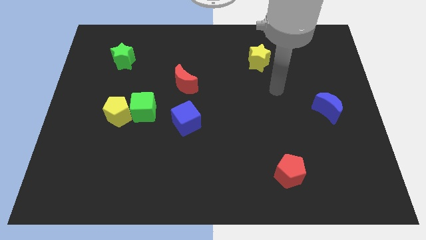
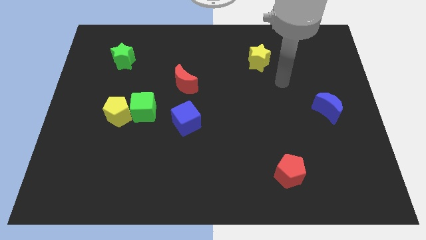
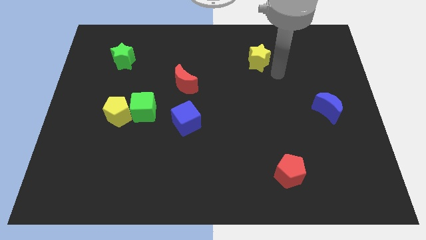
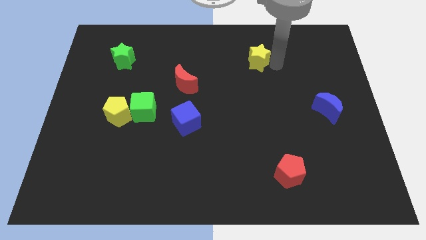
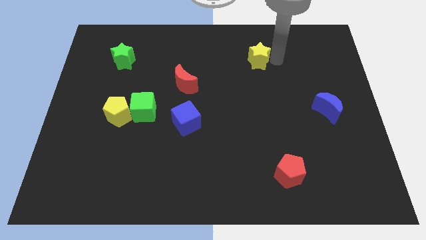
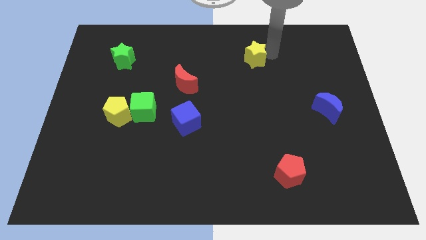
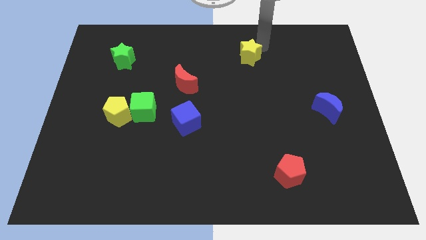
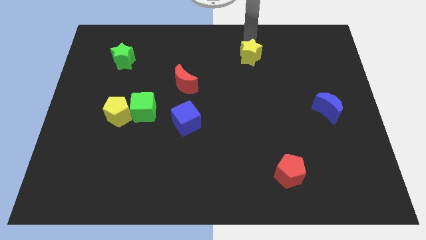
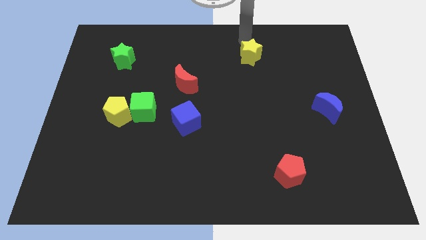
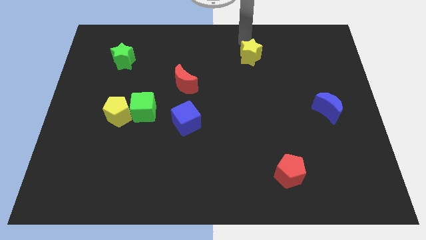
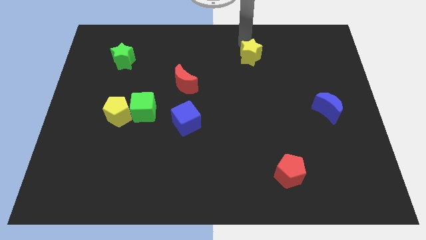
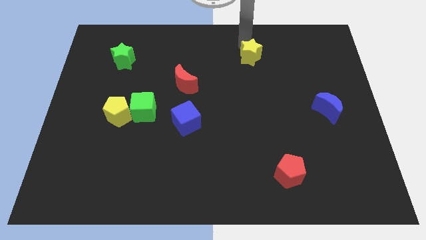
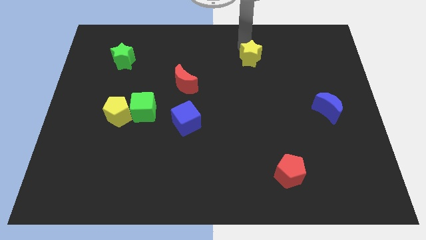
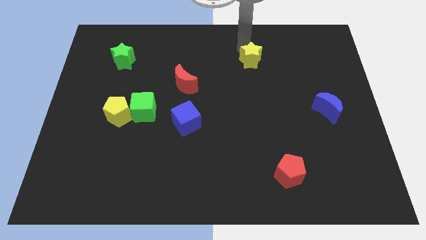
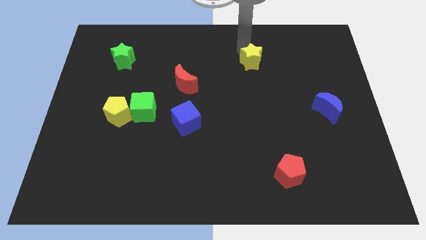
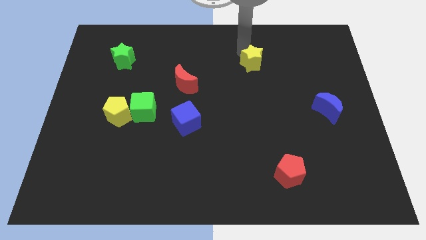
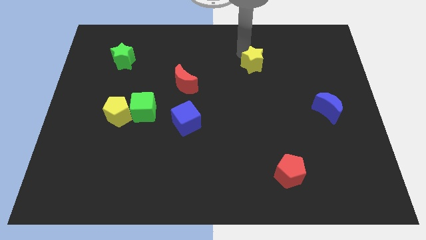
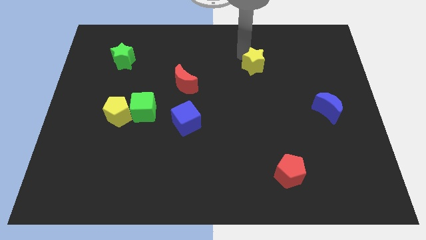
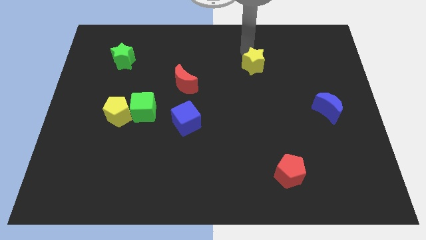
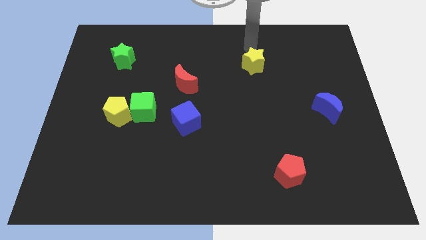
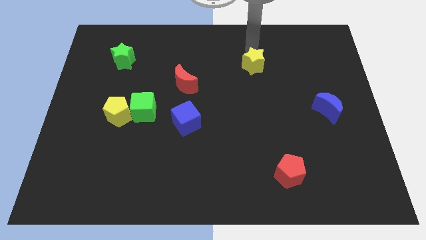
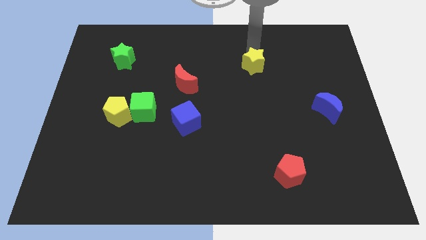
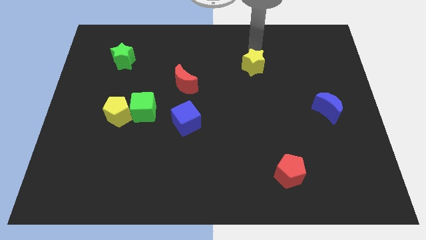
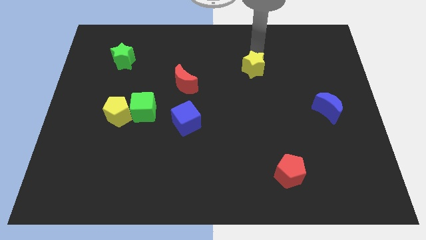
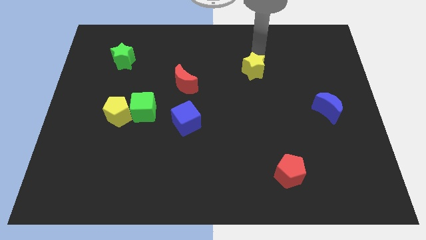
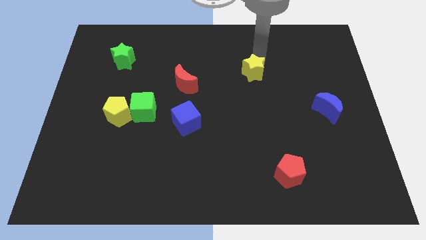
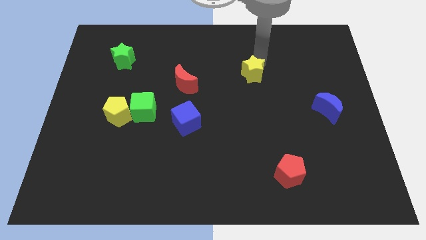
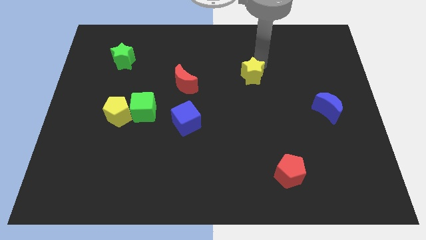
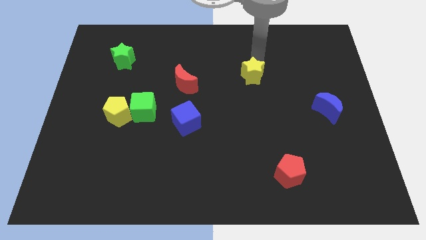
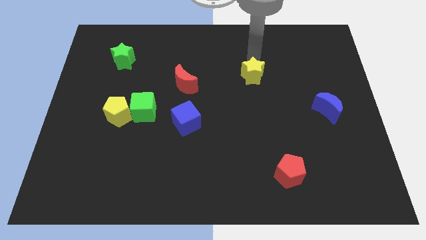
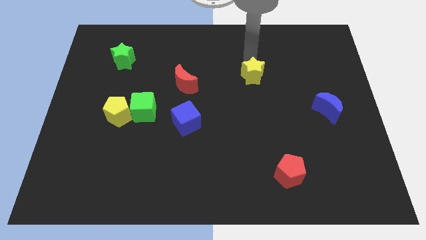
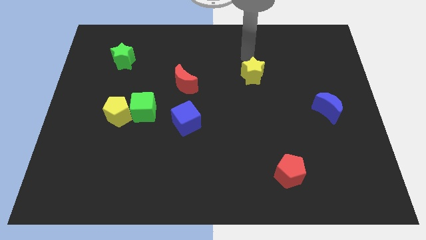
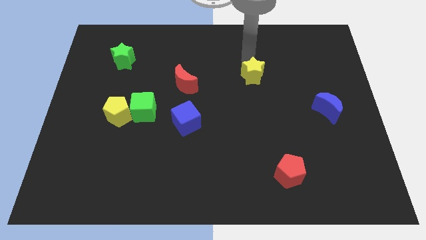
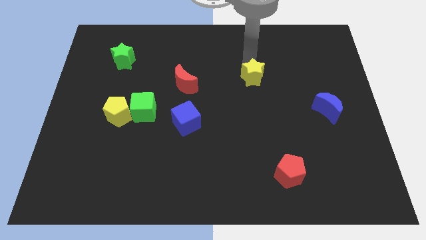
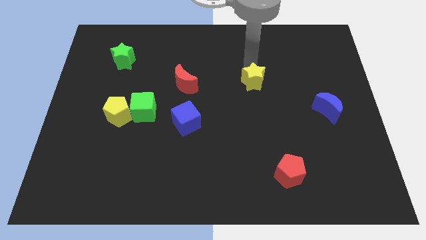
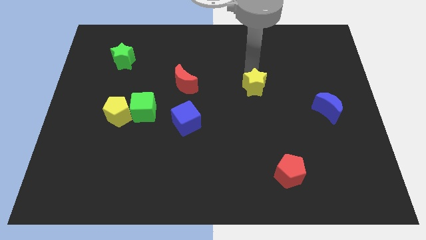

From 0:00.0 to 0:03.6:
slide the yellow star a bit downwards

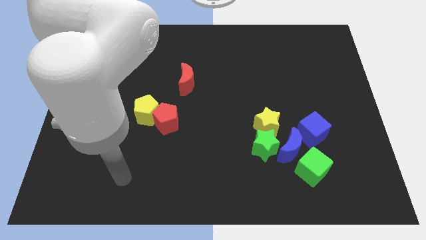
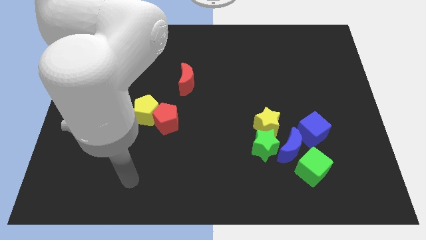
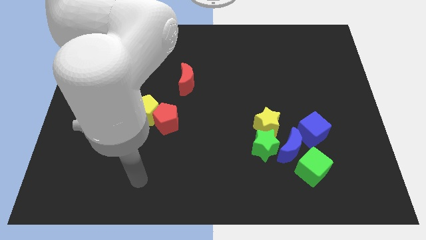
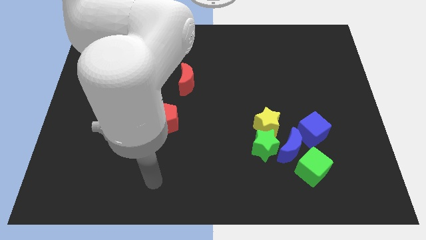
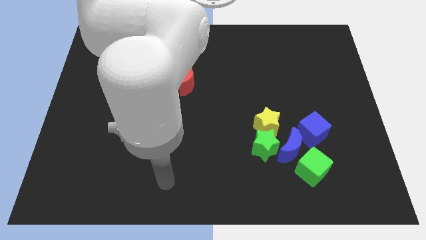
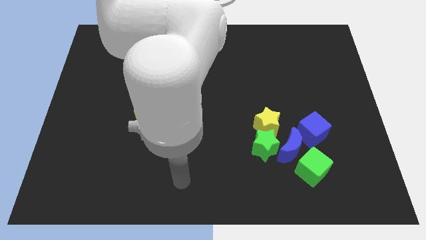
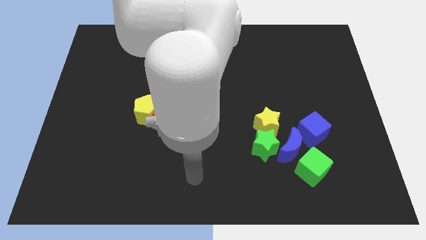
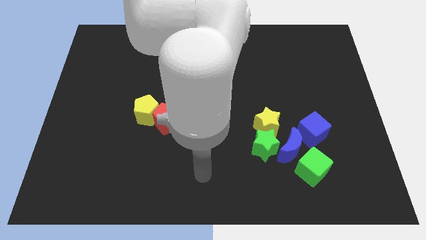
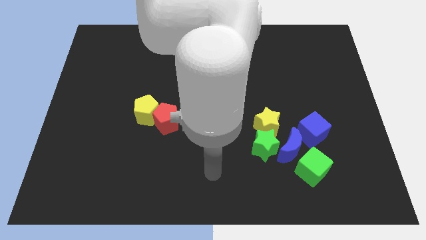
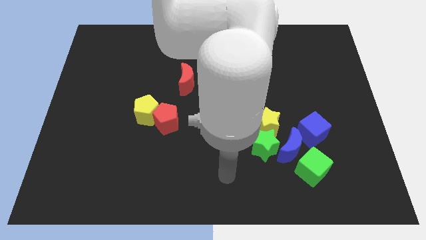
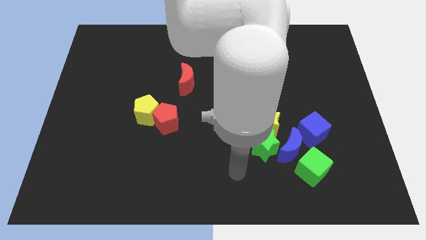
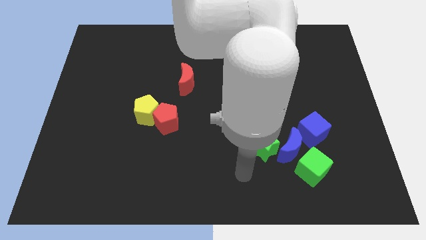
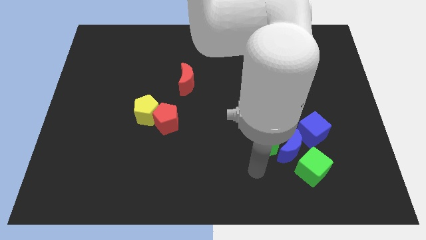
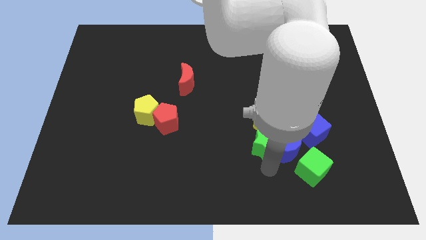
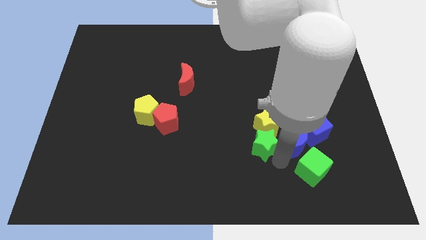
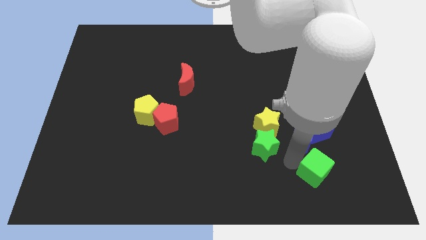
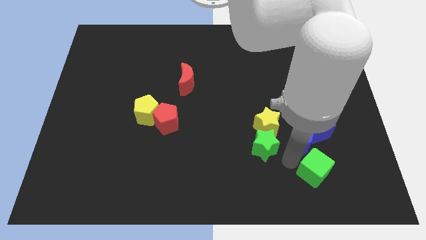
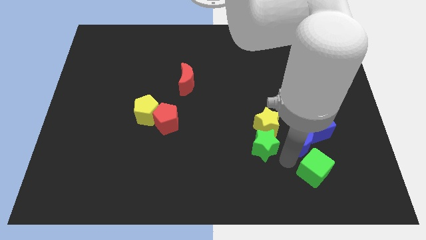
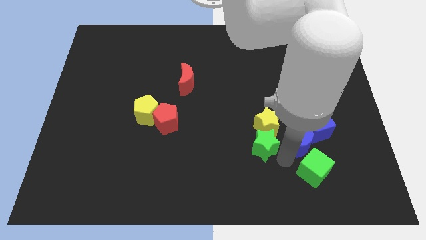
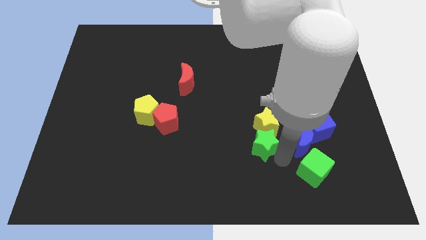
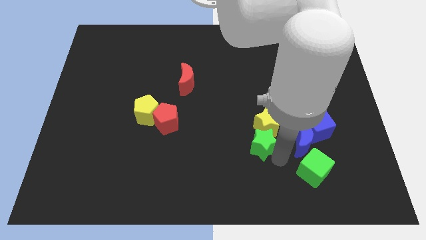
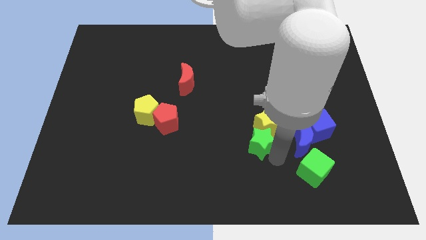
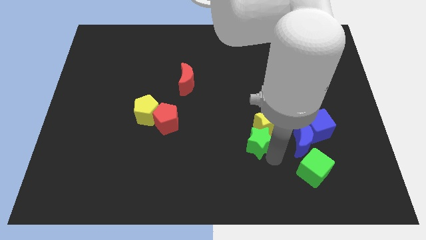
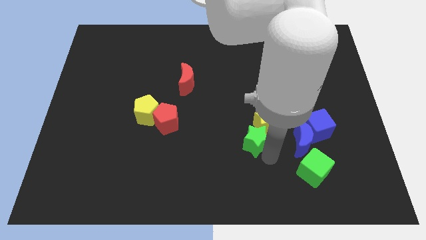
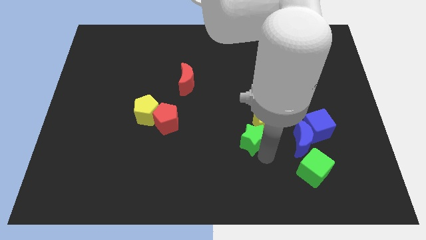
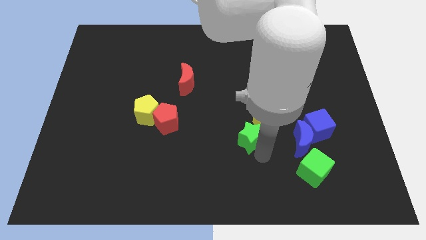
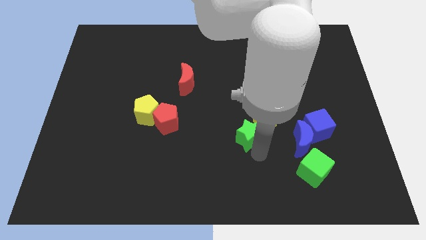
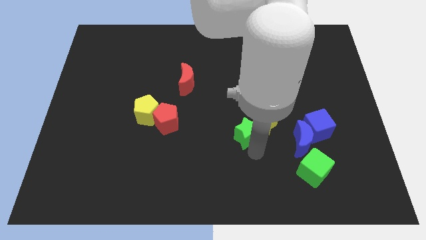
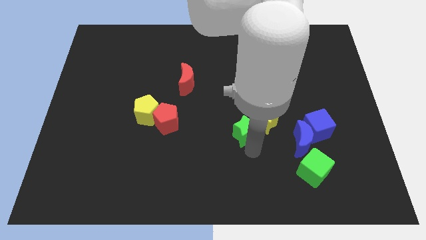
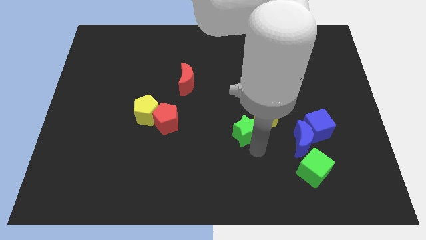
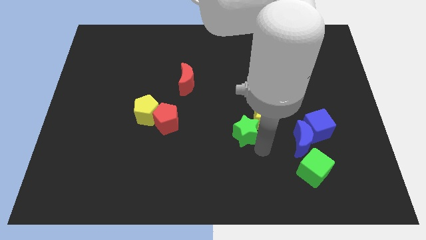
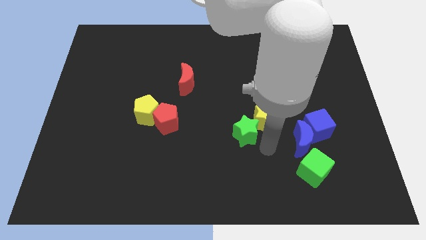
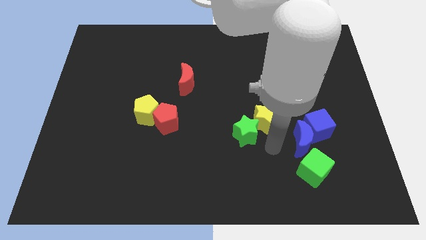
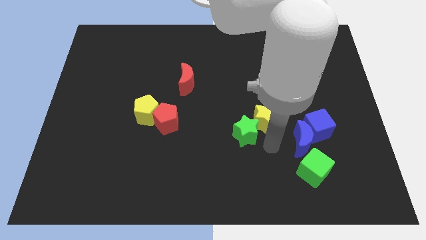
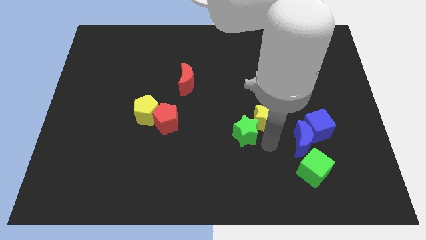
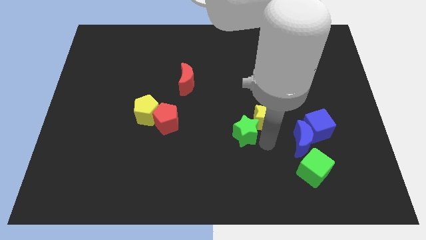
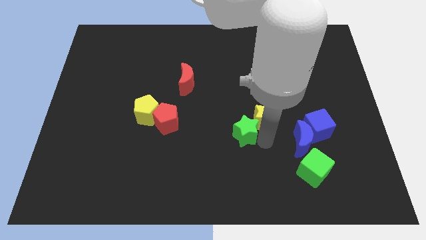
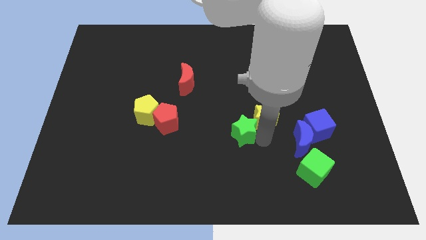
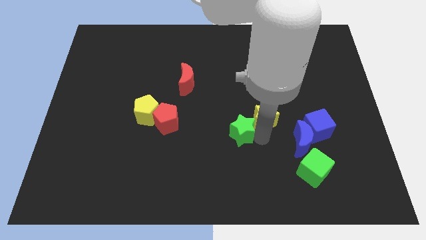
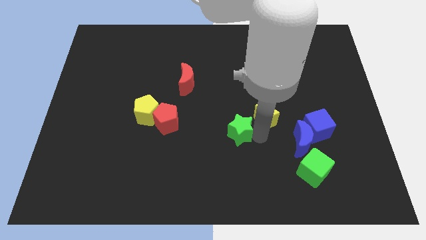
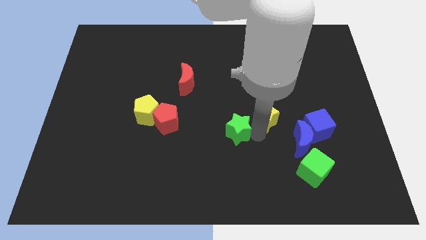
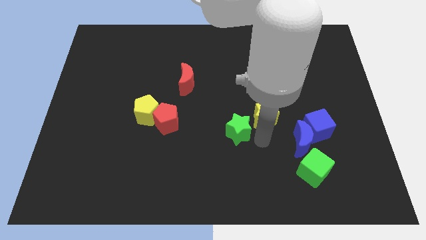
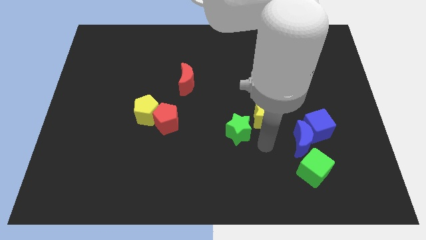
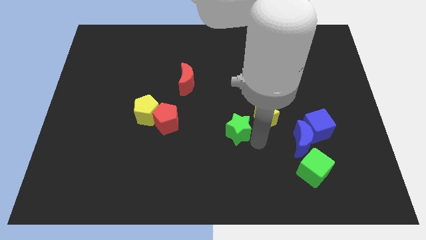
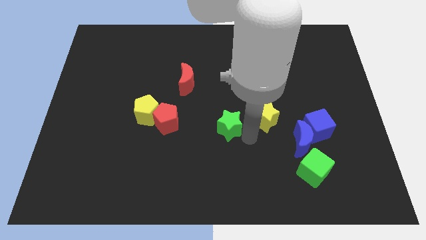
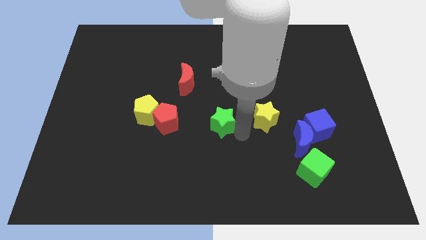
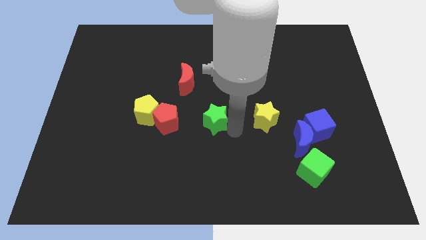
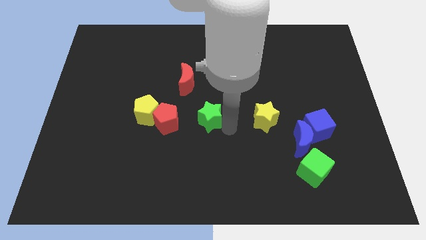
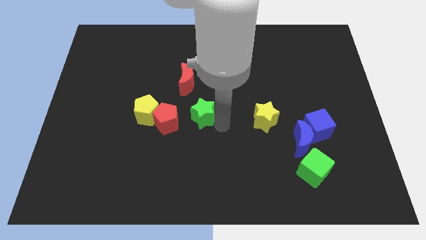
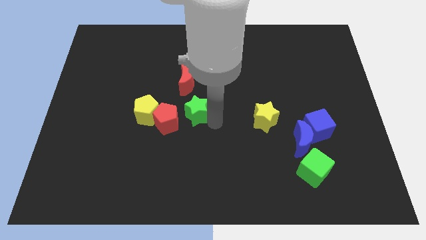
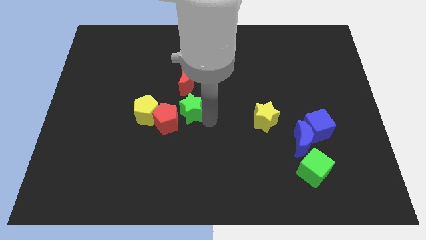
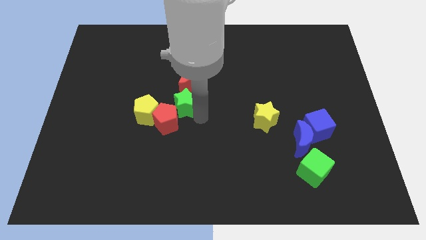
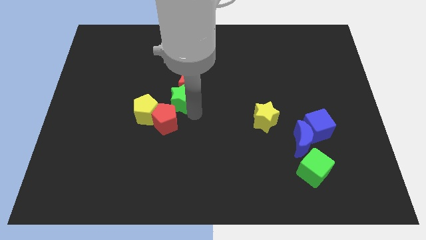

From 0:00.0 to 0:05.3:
push the green star upwards and then left
